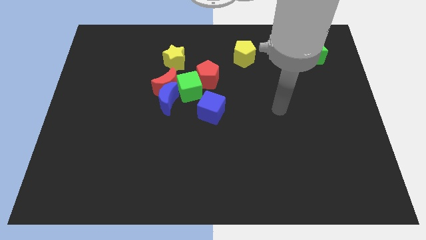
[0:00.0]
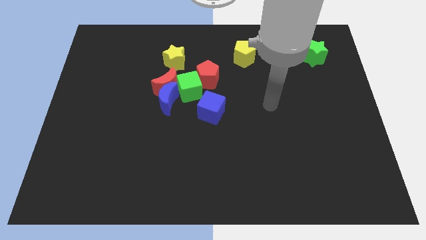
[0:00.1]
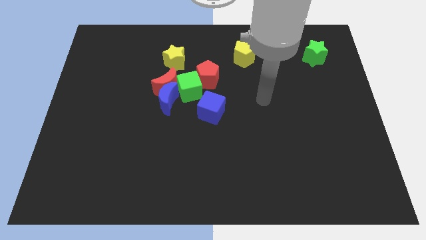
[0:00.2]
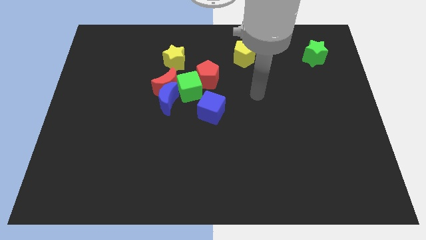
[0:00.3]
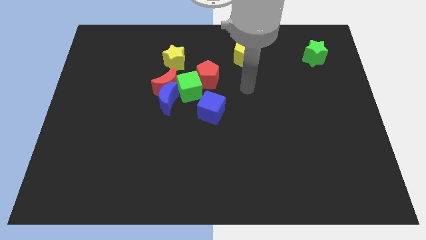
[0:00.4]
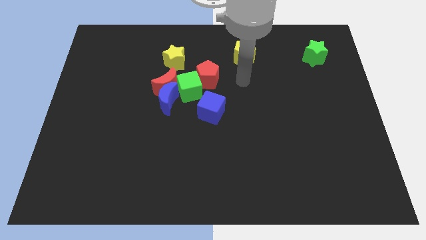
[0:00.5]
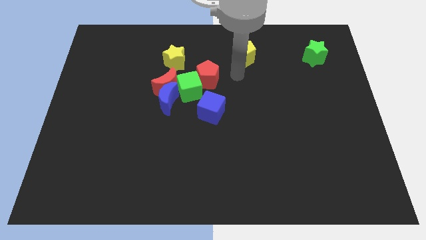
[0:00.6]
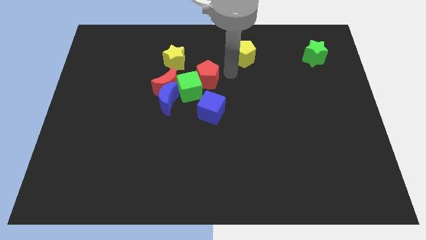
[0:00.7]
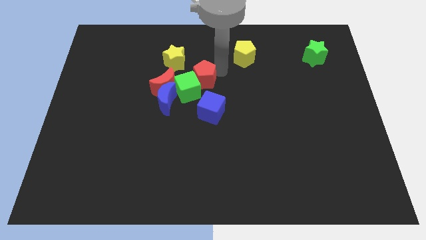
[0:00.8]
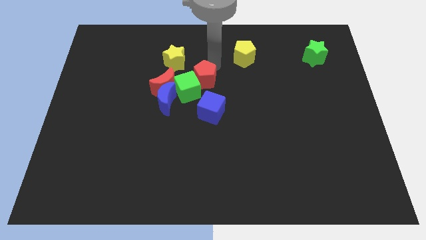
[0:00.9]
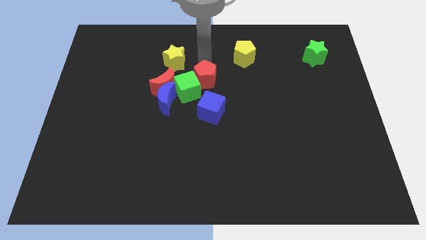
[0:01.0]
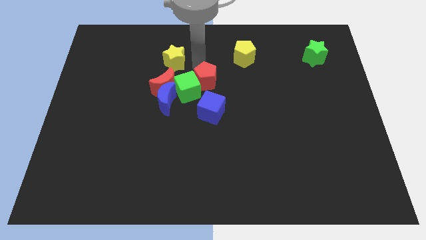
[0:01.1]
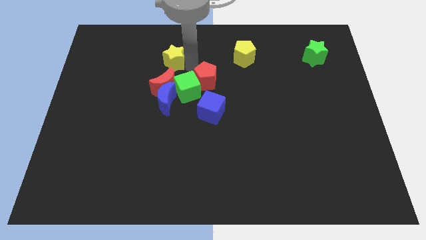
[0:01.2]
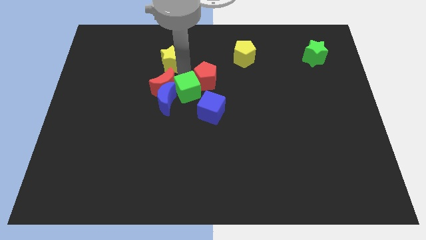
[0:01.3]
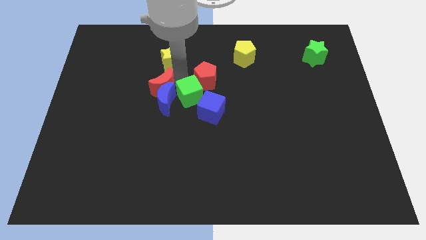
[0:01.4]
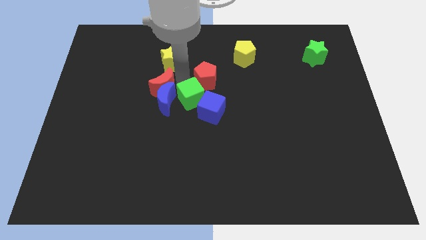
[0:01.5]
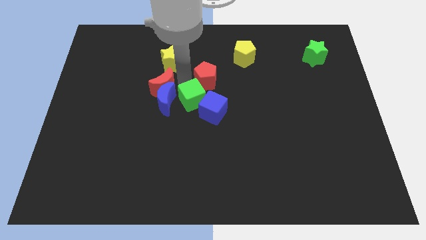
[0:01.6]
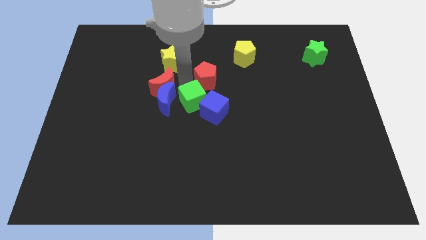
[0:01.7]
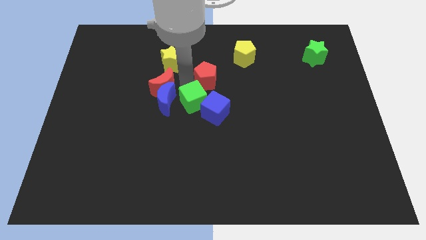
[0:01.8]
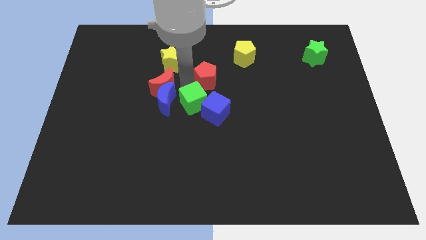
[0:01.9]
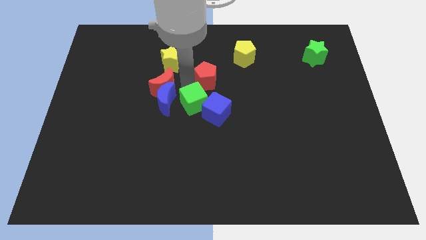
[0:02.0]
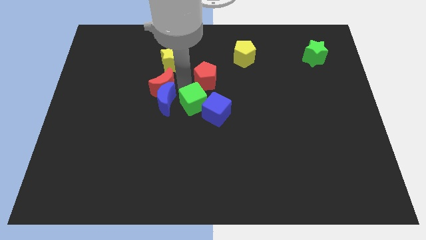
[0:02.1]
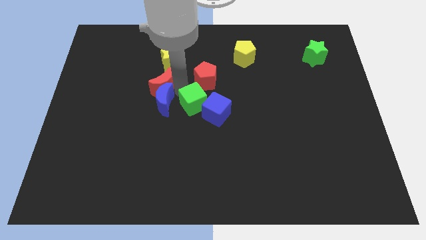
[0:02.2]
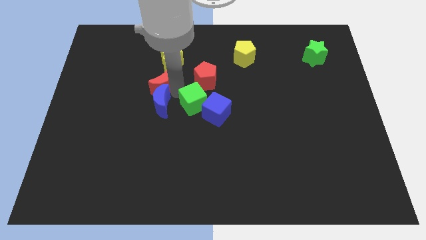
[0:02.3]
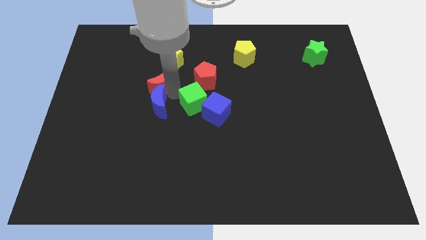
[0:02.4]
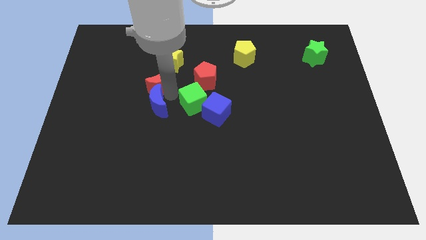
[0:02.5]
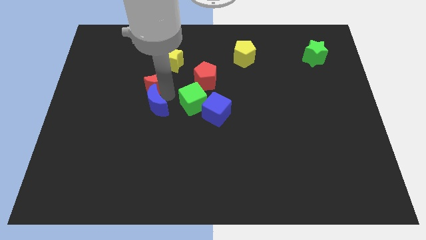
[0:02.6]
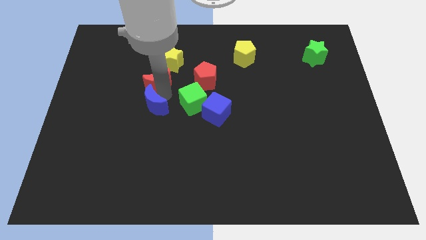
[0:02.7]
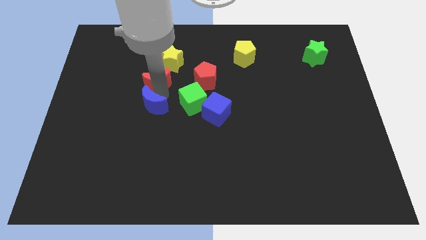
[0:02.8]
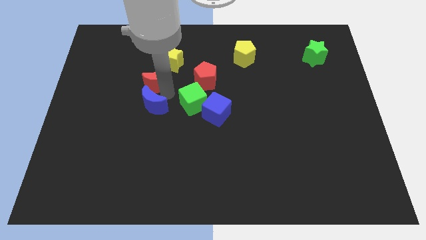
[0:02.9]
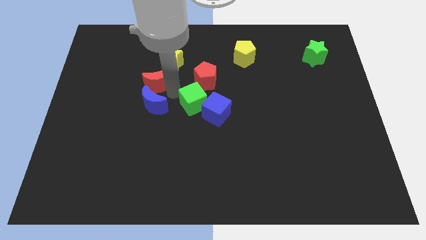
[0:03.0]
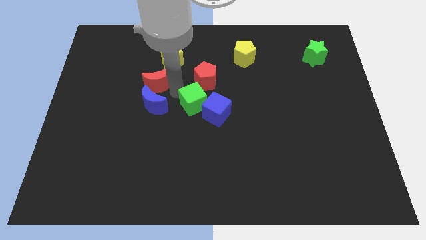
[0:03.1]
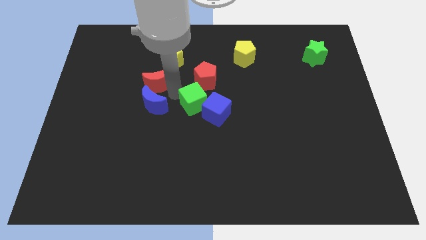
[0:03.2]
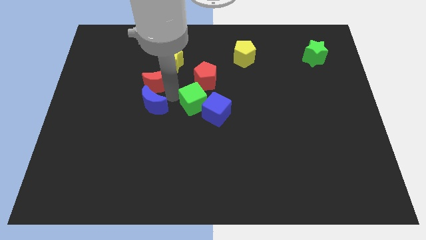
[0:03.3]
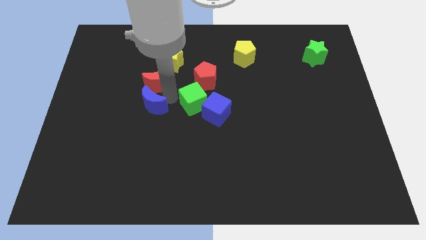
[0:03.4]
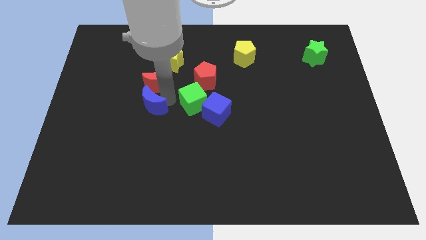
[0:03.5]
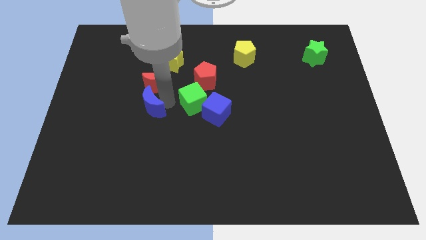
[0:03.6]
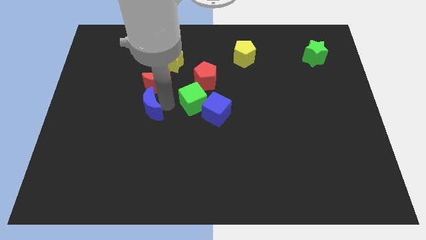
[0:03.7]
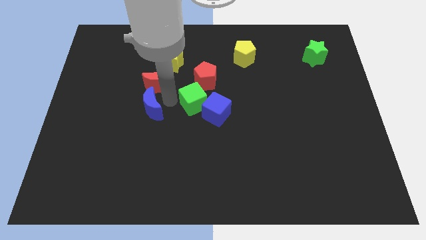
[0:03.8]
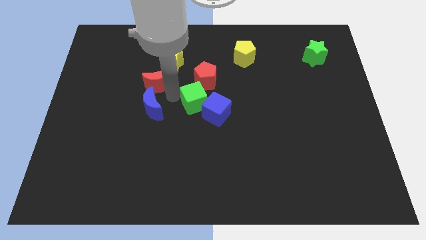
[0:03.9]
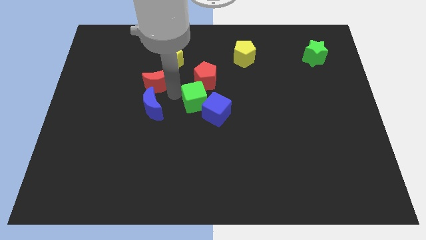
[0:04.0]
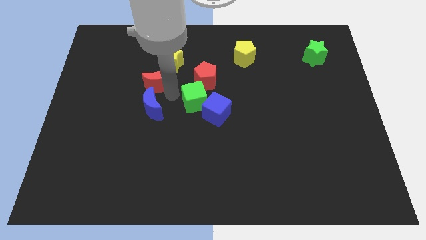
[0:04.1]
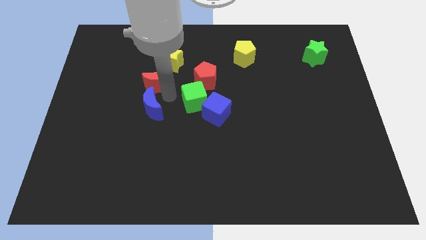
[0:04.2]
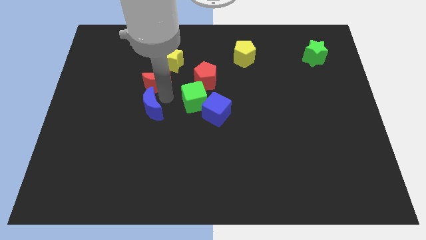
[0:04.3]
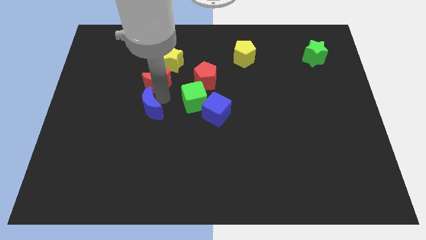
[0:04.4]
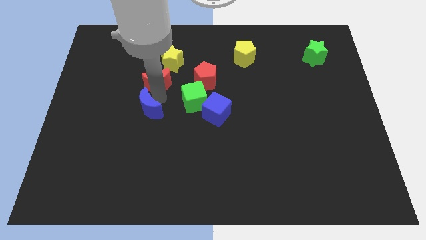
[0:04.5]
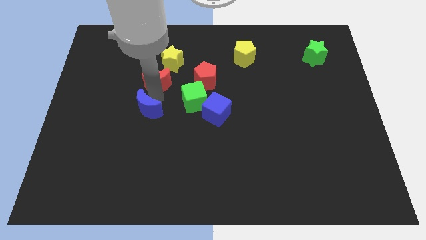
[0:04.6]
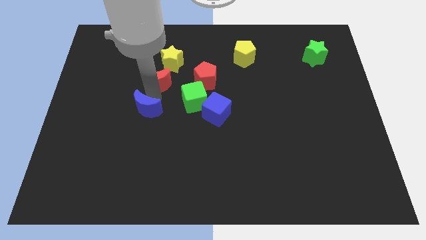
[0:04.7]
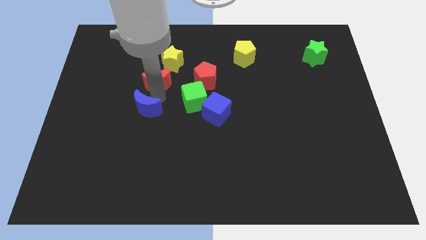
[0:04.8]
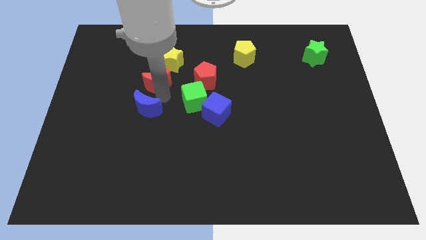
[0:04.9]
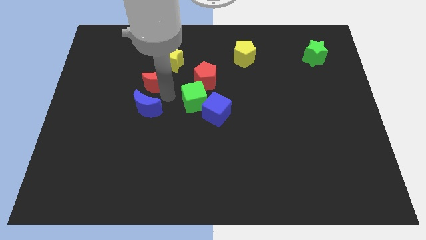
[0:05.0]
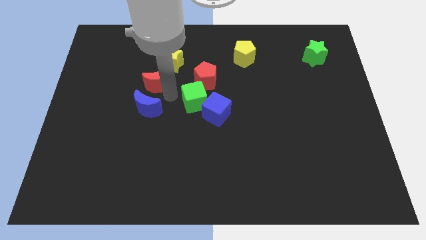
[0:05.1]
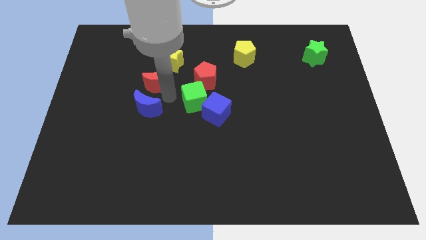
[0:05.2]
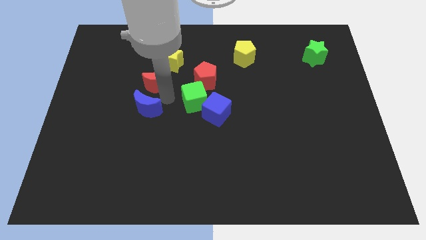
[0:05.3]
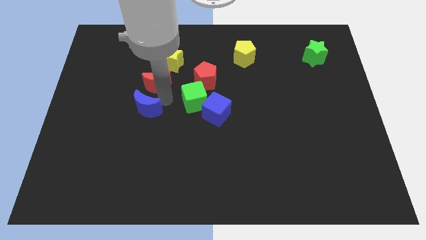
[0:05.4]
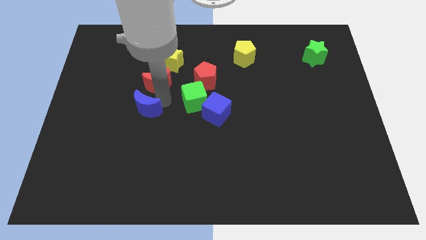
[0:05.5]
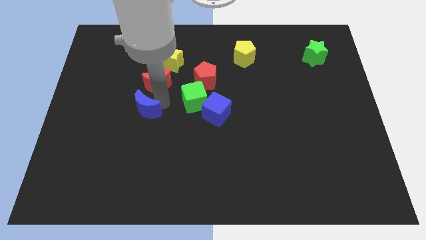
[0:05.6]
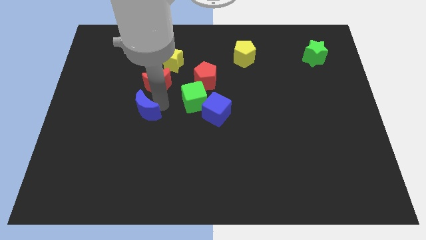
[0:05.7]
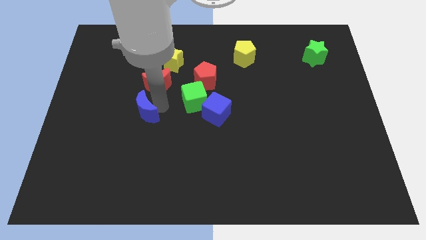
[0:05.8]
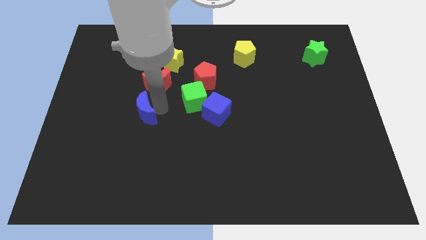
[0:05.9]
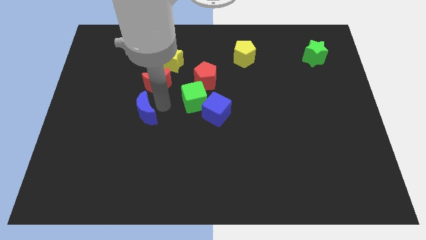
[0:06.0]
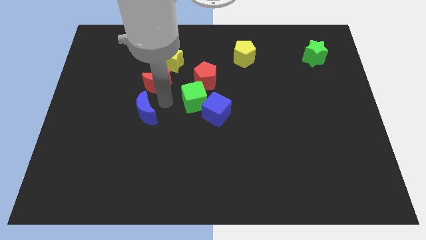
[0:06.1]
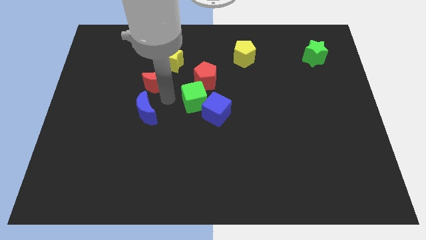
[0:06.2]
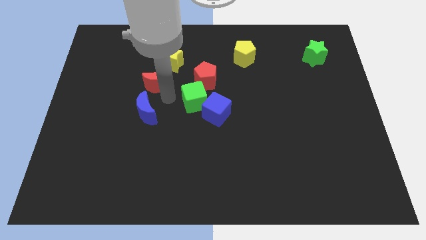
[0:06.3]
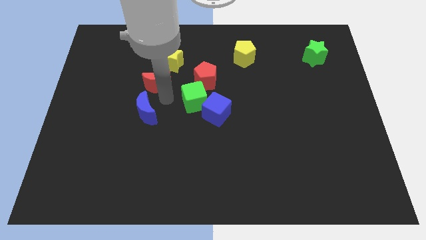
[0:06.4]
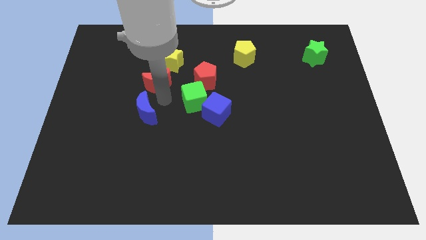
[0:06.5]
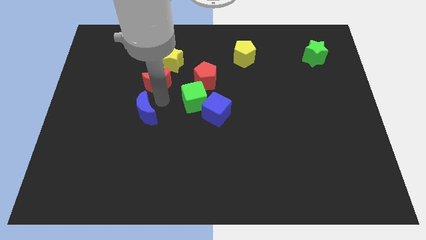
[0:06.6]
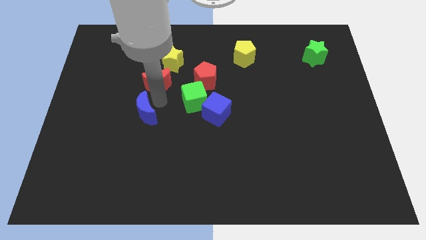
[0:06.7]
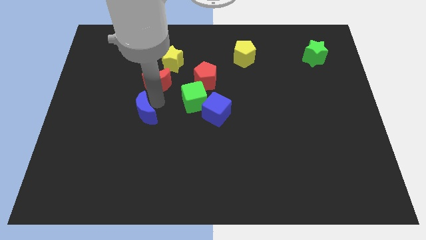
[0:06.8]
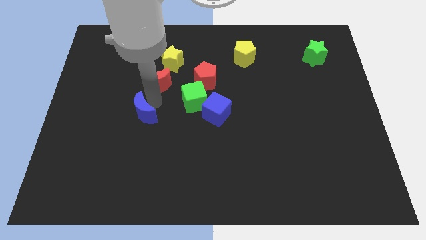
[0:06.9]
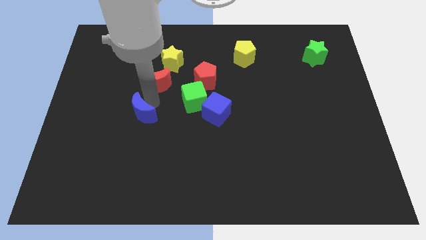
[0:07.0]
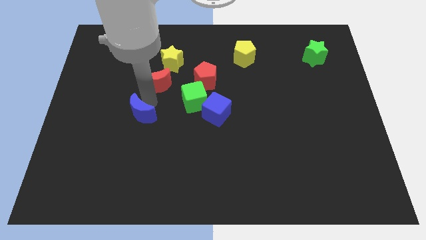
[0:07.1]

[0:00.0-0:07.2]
move the blue moon away from the red moon and green cube

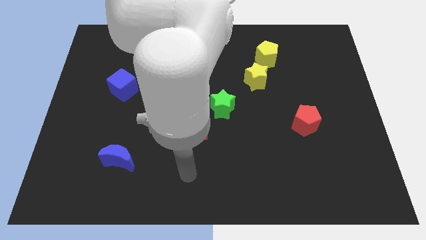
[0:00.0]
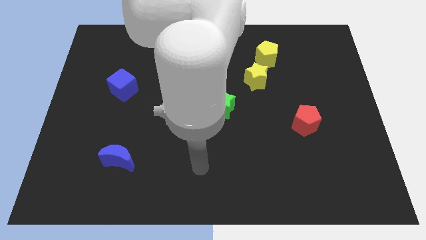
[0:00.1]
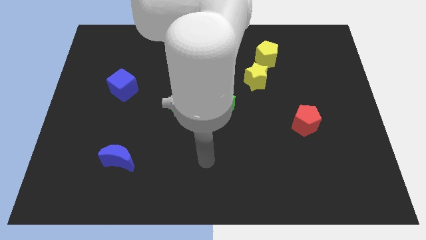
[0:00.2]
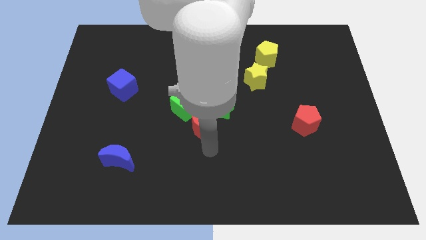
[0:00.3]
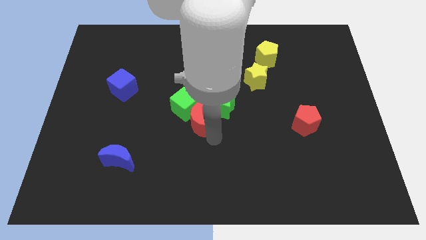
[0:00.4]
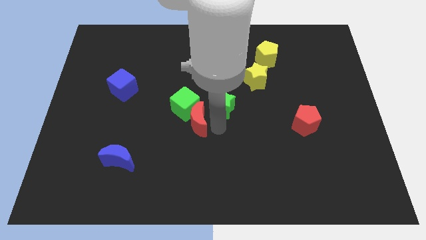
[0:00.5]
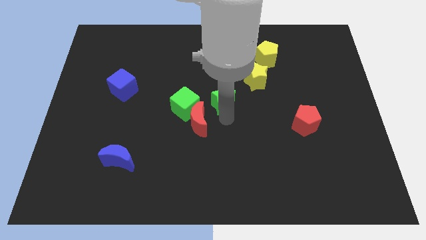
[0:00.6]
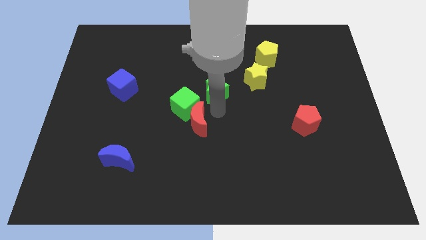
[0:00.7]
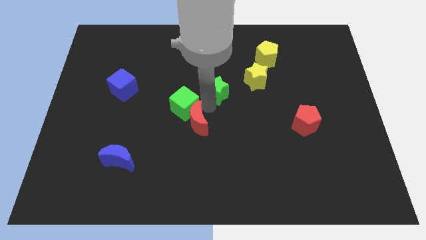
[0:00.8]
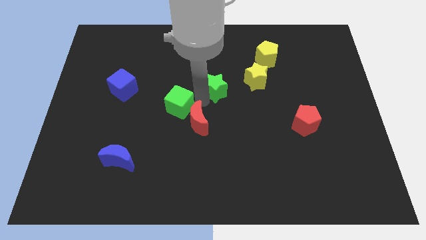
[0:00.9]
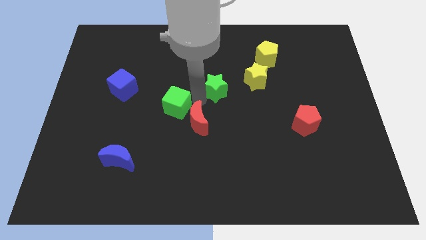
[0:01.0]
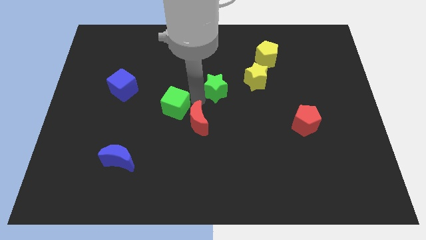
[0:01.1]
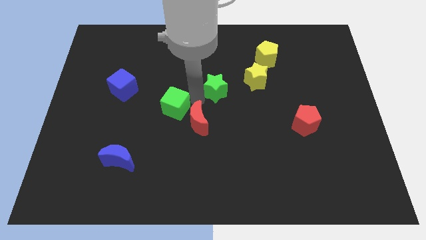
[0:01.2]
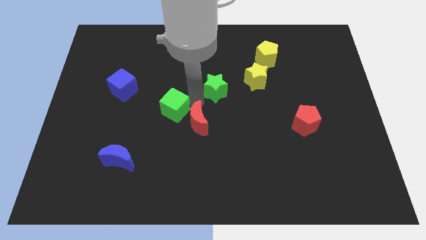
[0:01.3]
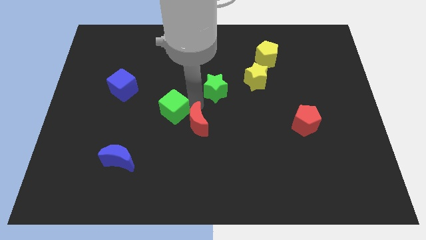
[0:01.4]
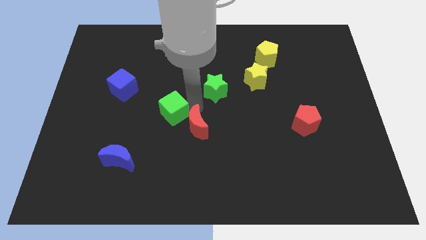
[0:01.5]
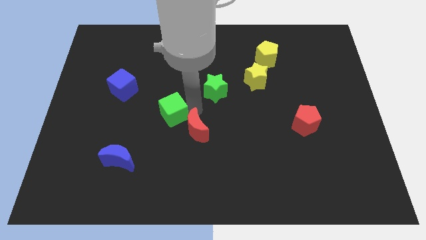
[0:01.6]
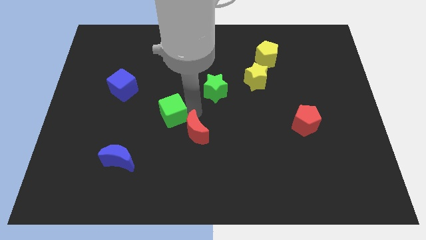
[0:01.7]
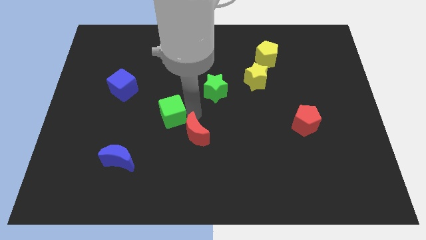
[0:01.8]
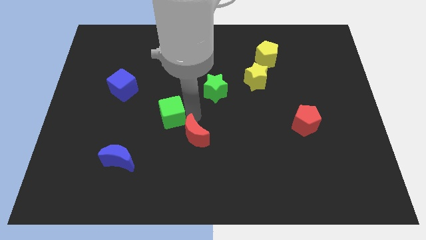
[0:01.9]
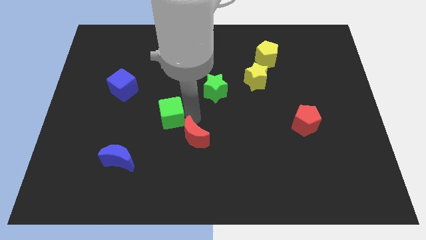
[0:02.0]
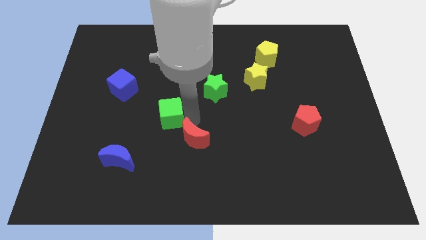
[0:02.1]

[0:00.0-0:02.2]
pull the red moon apart from the green cube and green star
